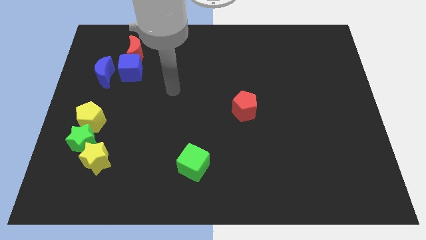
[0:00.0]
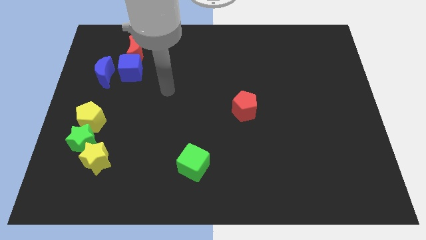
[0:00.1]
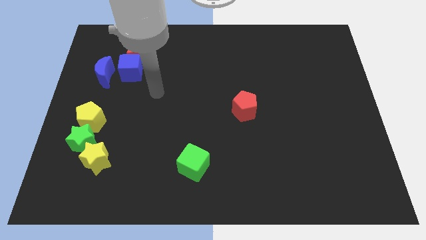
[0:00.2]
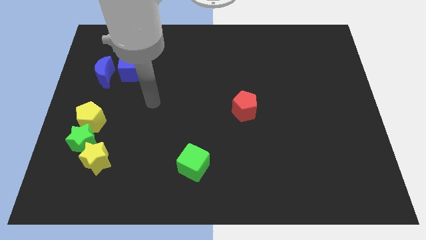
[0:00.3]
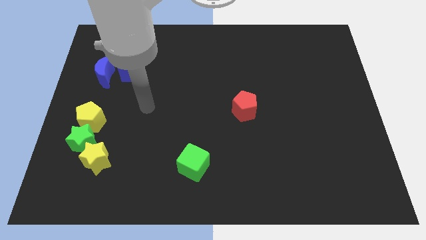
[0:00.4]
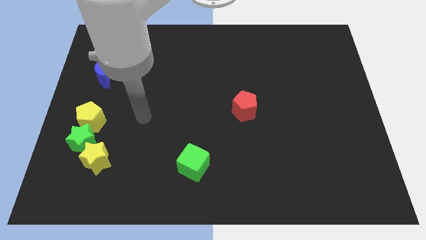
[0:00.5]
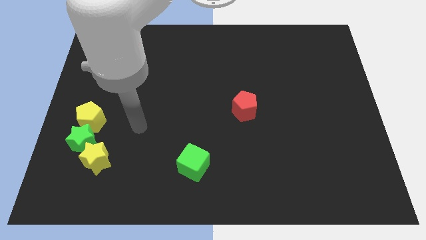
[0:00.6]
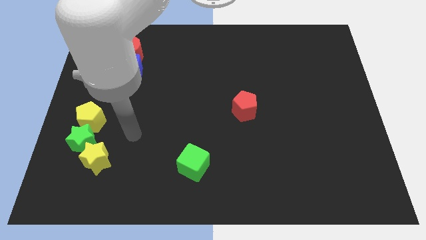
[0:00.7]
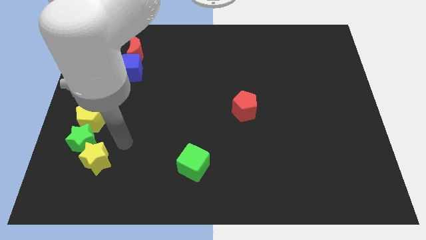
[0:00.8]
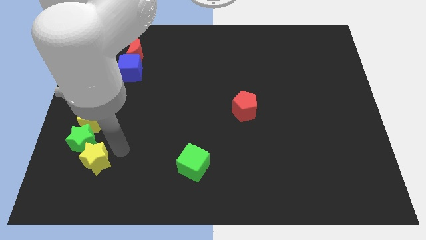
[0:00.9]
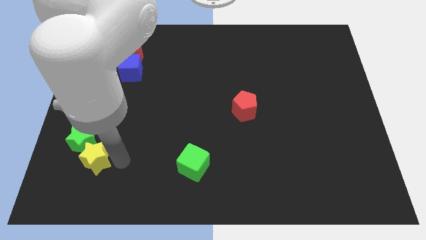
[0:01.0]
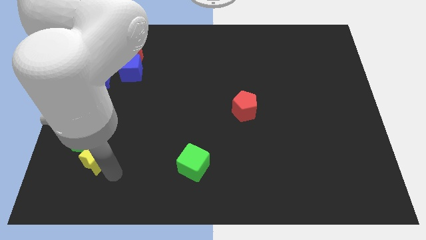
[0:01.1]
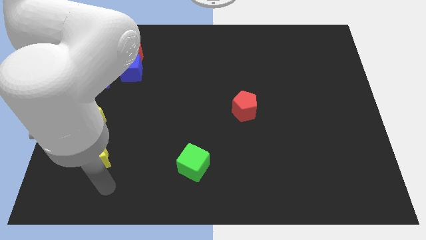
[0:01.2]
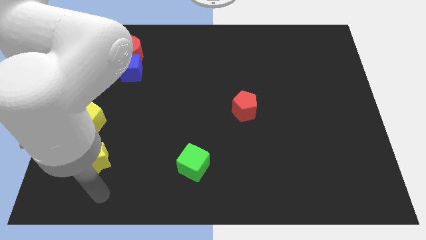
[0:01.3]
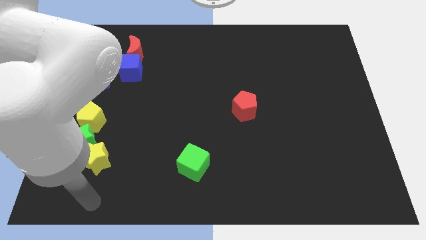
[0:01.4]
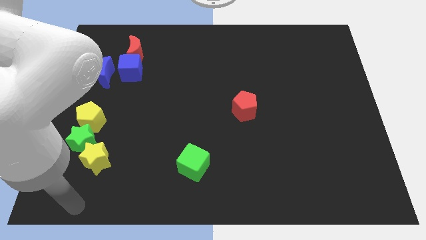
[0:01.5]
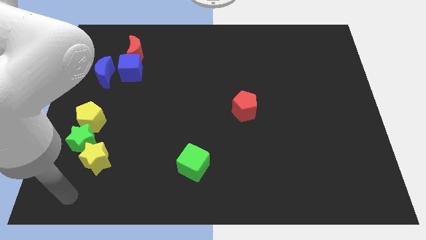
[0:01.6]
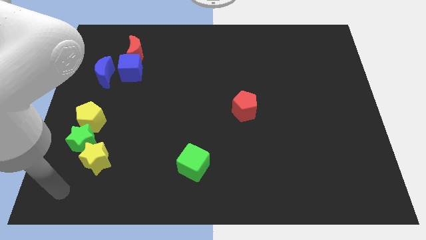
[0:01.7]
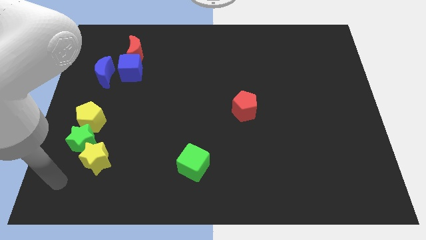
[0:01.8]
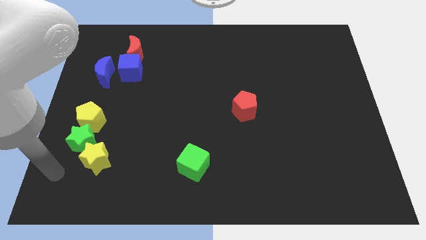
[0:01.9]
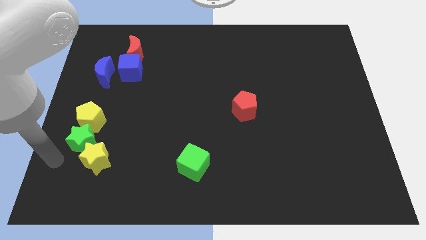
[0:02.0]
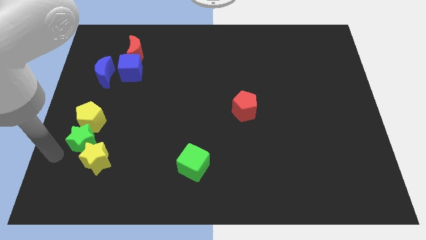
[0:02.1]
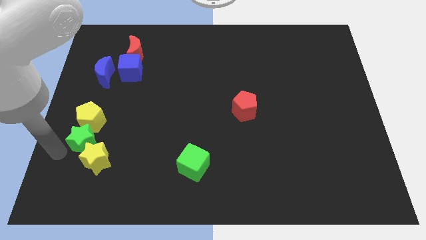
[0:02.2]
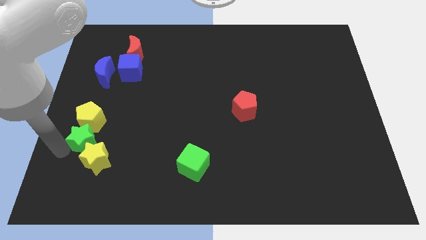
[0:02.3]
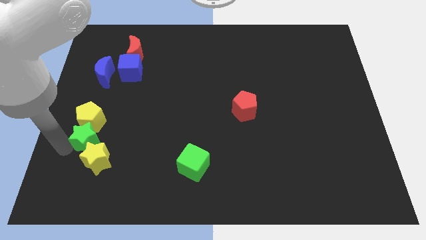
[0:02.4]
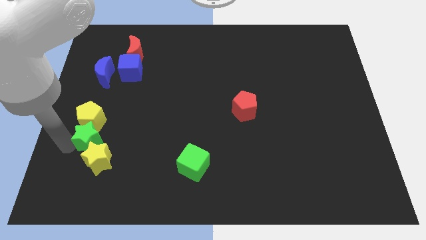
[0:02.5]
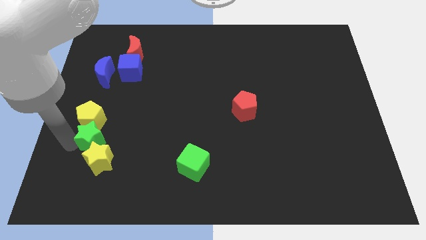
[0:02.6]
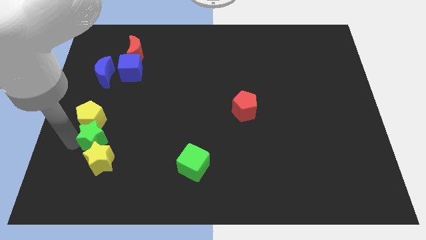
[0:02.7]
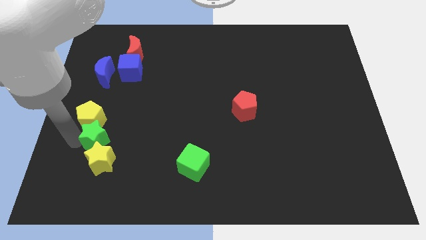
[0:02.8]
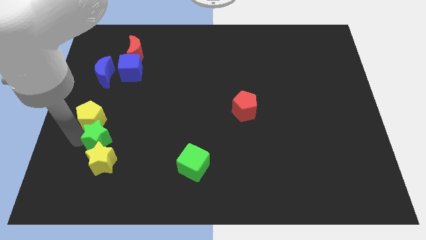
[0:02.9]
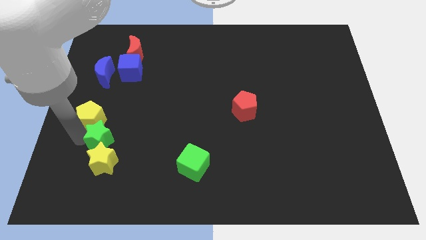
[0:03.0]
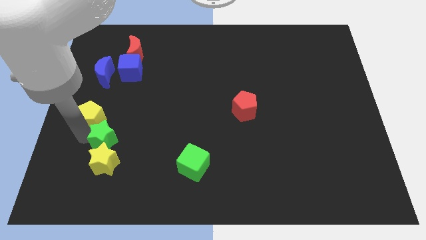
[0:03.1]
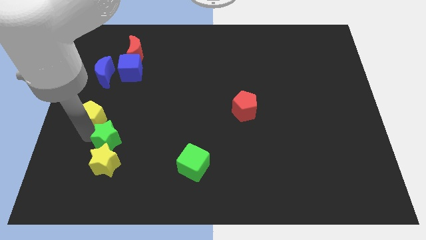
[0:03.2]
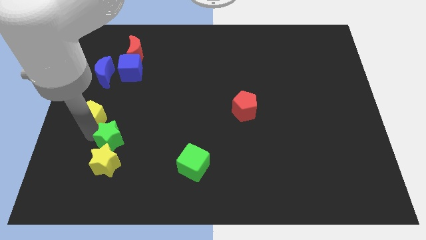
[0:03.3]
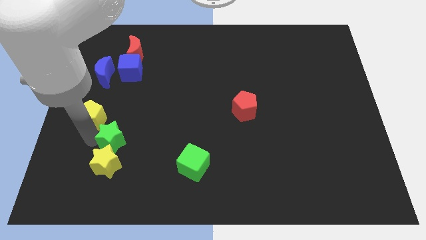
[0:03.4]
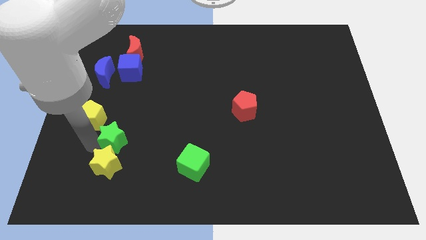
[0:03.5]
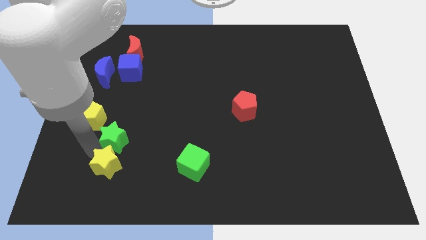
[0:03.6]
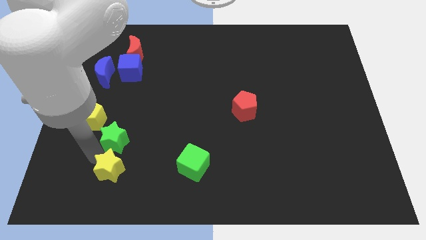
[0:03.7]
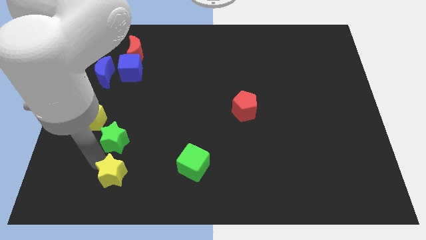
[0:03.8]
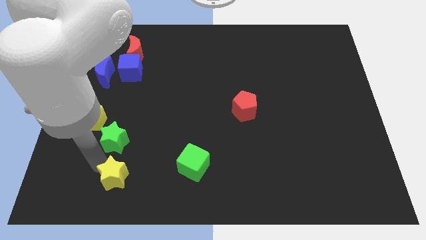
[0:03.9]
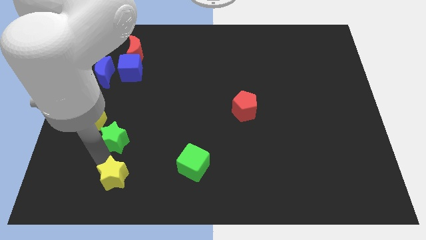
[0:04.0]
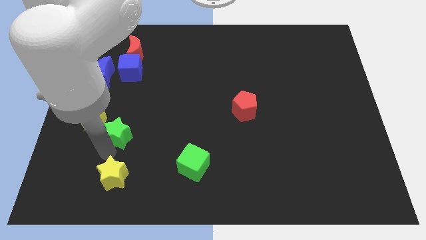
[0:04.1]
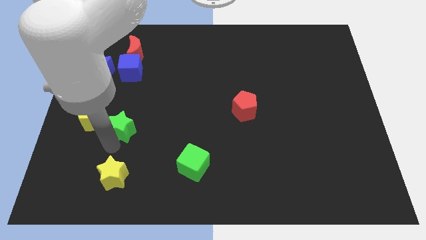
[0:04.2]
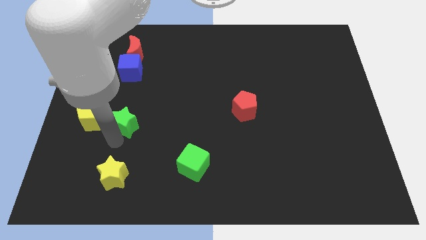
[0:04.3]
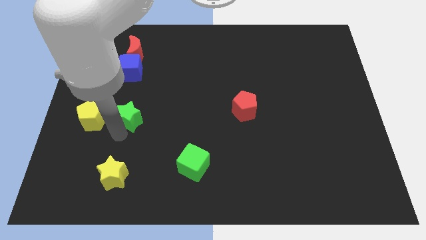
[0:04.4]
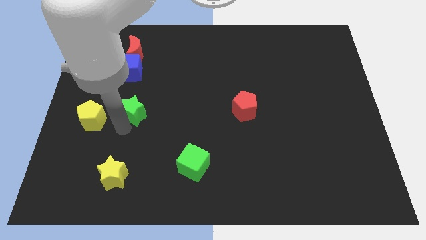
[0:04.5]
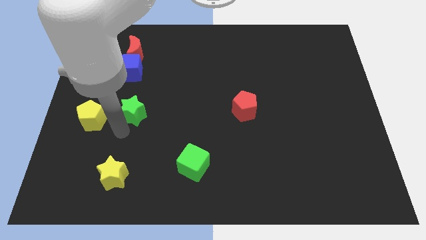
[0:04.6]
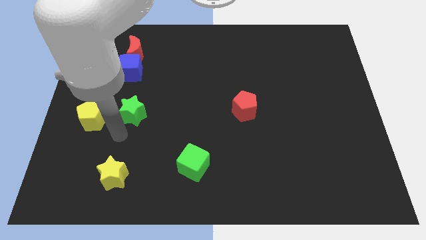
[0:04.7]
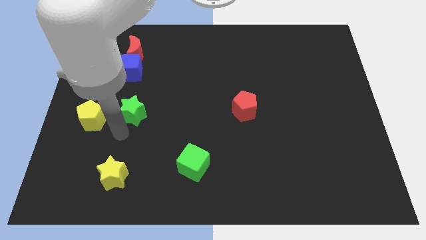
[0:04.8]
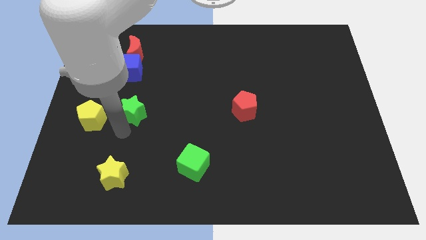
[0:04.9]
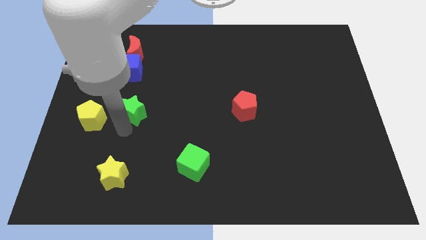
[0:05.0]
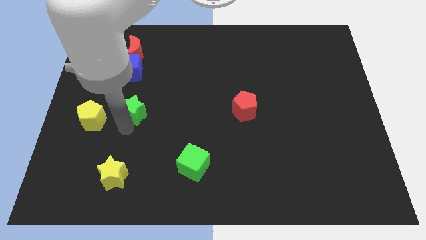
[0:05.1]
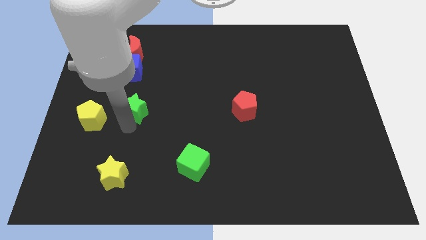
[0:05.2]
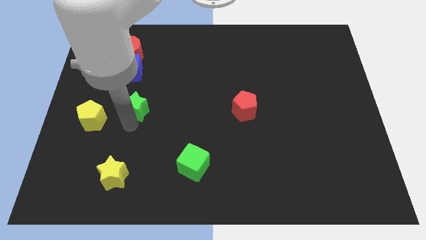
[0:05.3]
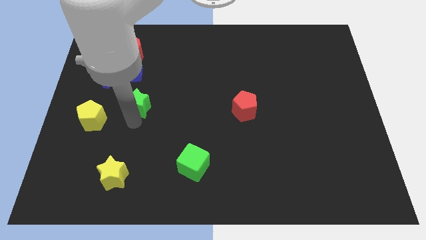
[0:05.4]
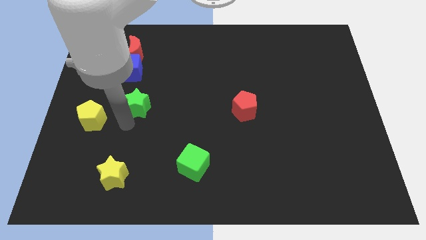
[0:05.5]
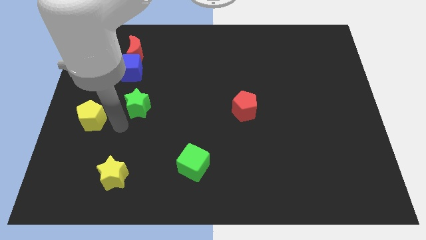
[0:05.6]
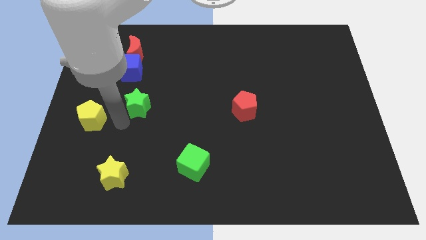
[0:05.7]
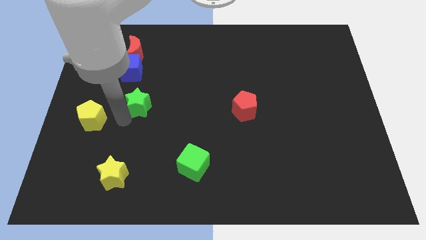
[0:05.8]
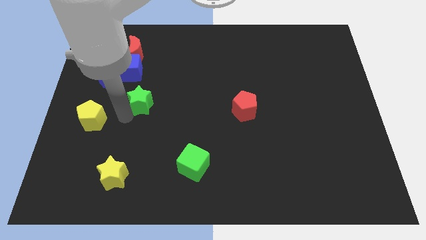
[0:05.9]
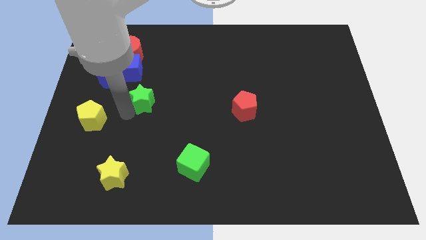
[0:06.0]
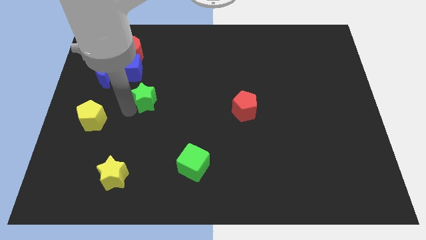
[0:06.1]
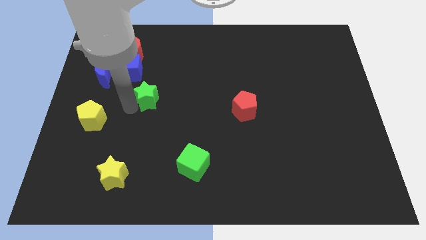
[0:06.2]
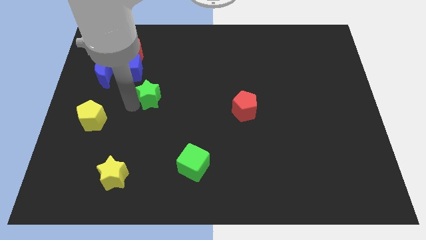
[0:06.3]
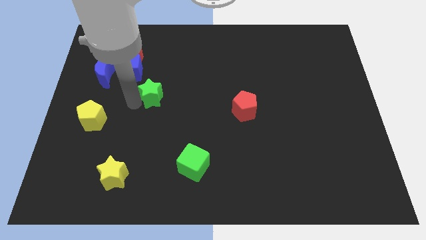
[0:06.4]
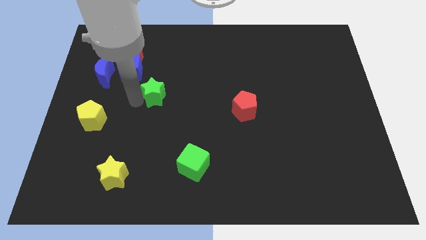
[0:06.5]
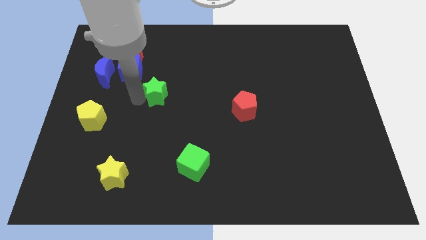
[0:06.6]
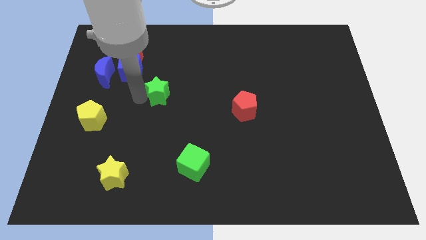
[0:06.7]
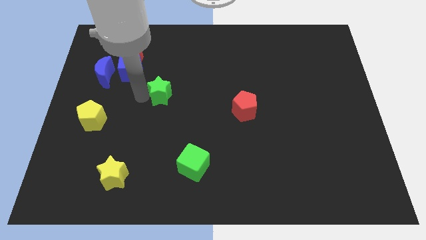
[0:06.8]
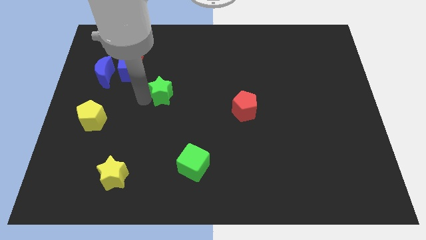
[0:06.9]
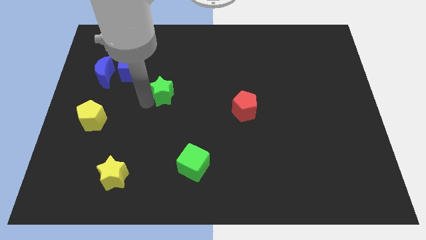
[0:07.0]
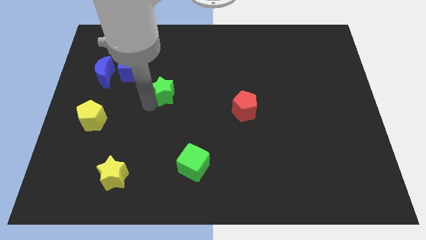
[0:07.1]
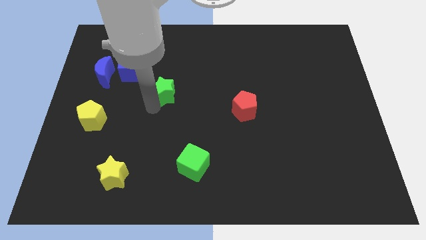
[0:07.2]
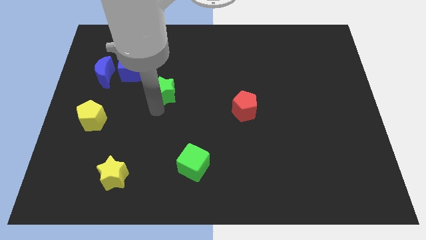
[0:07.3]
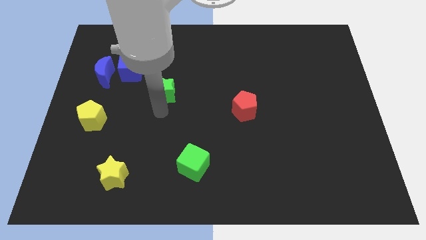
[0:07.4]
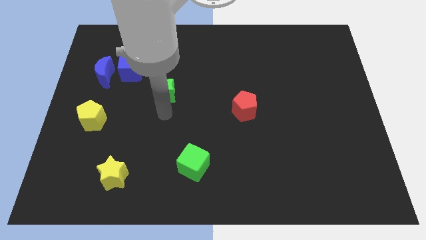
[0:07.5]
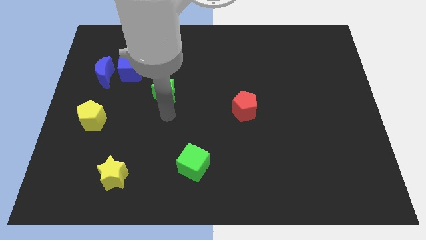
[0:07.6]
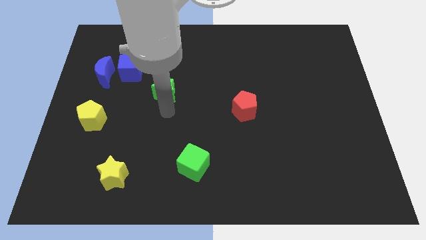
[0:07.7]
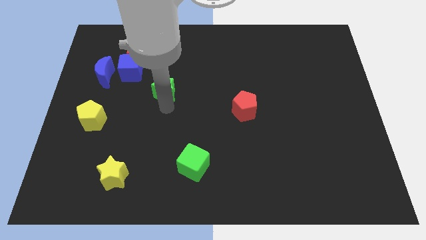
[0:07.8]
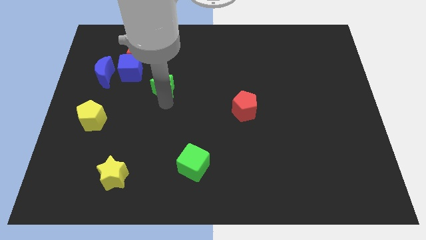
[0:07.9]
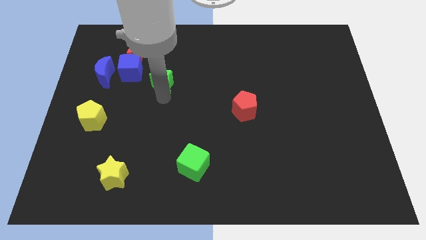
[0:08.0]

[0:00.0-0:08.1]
push the green star right of the blue cube

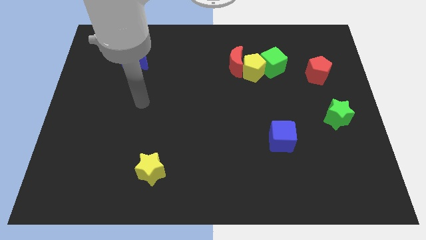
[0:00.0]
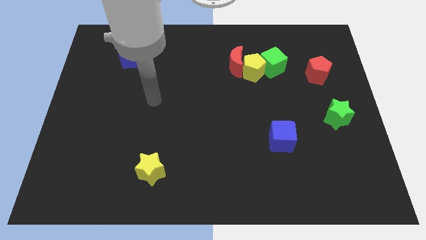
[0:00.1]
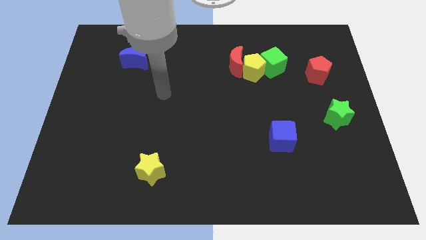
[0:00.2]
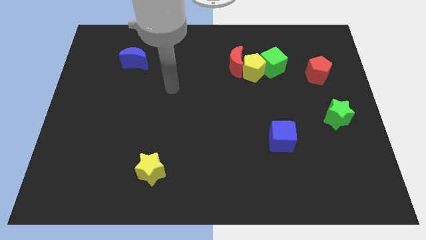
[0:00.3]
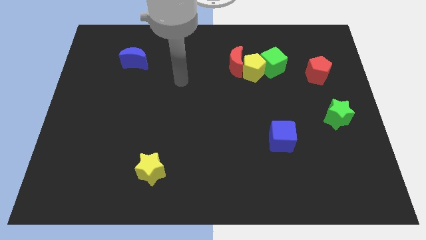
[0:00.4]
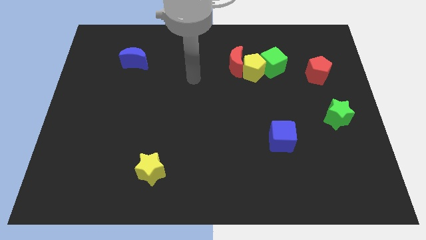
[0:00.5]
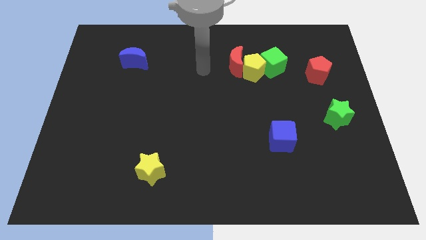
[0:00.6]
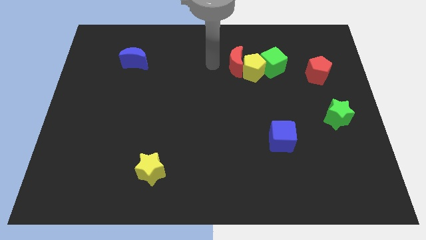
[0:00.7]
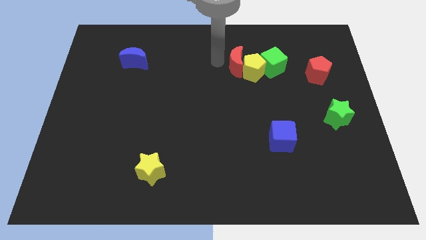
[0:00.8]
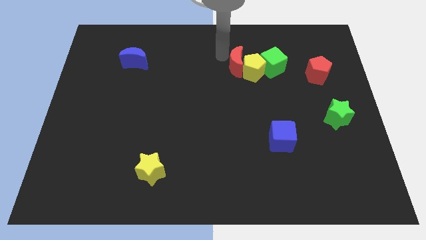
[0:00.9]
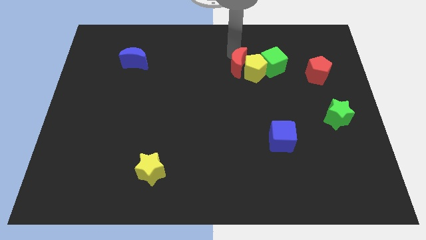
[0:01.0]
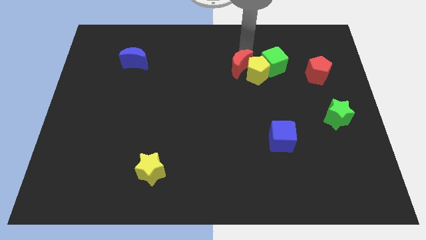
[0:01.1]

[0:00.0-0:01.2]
move the yellow pentagon to the bottom of the red moon
